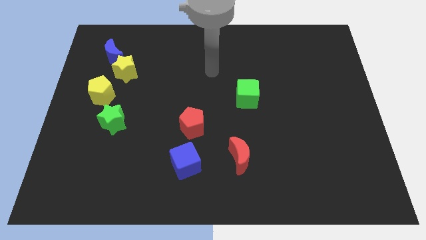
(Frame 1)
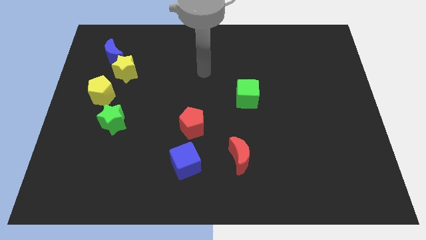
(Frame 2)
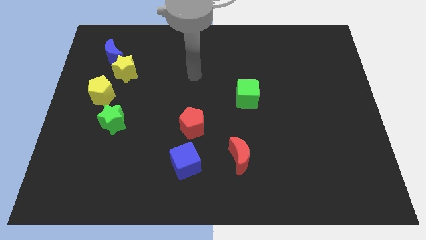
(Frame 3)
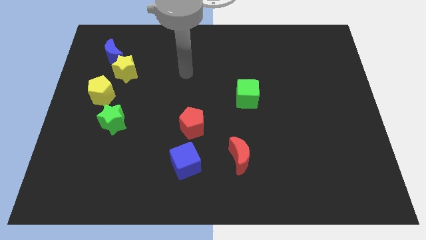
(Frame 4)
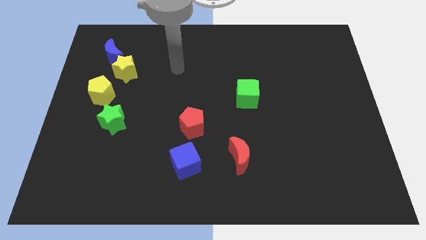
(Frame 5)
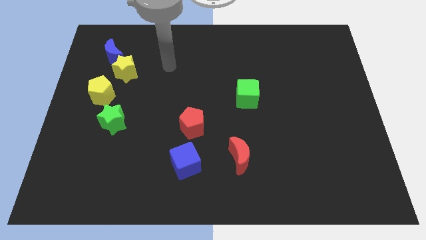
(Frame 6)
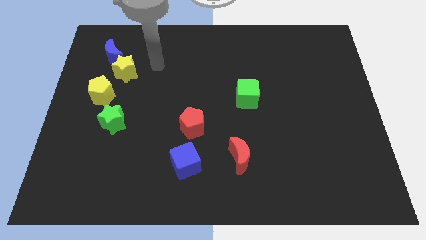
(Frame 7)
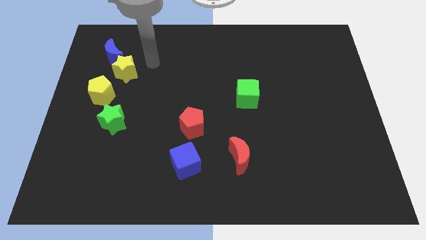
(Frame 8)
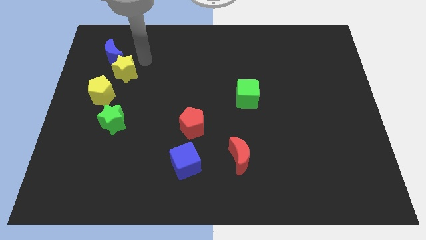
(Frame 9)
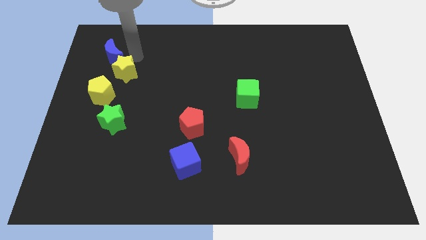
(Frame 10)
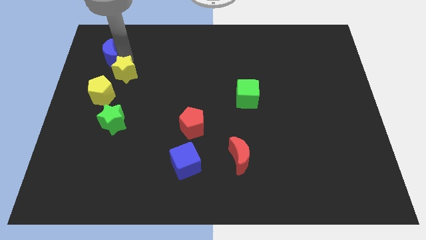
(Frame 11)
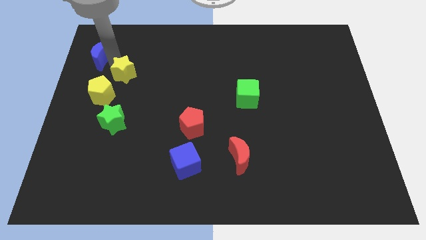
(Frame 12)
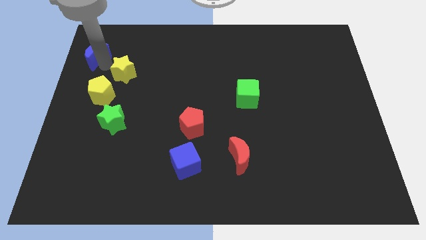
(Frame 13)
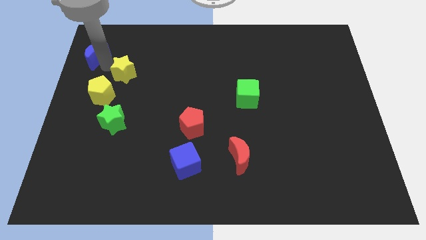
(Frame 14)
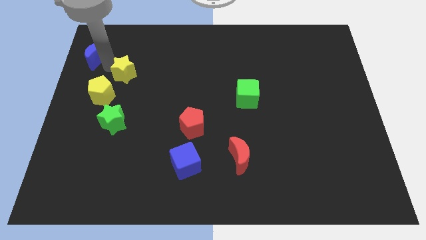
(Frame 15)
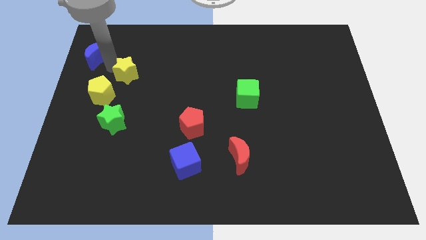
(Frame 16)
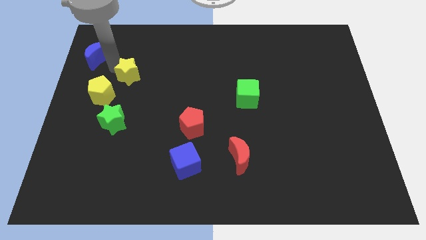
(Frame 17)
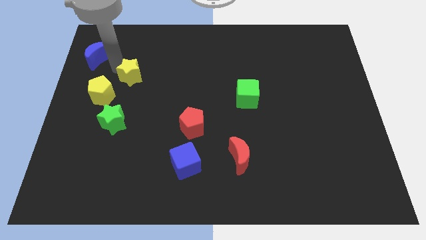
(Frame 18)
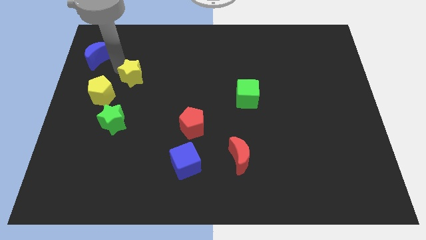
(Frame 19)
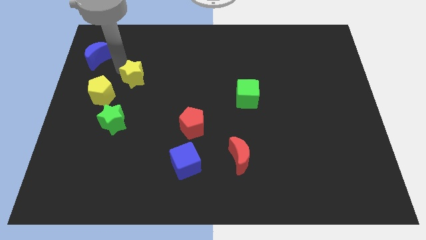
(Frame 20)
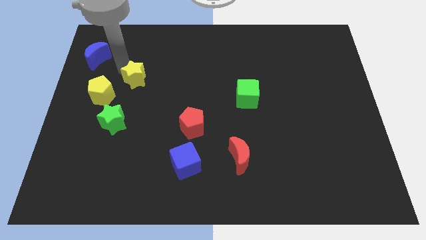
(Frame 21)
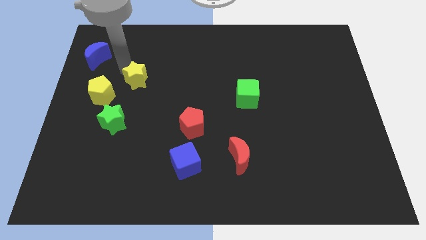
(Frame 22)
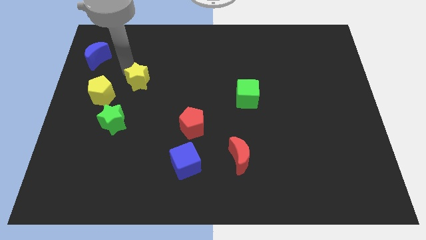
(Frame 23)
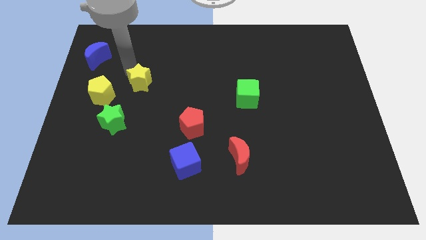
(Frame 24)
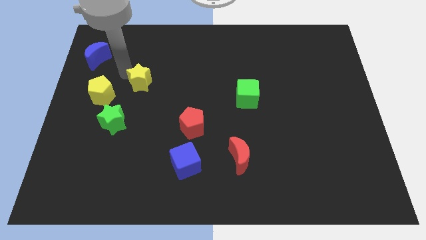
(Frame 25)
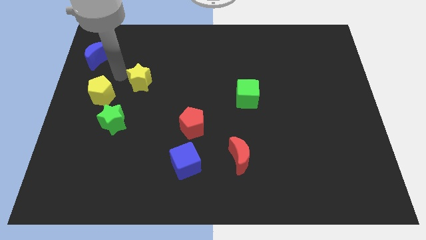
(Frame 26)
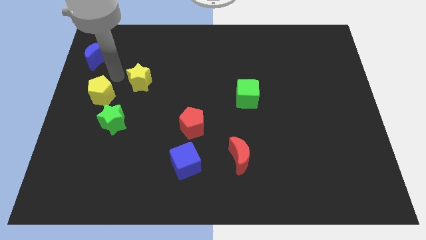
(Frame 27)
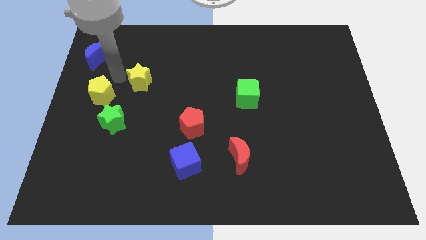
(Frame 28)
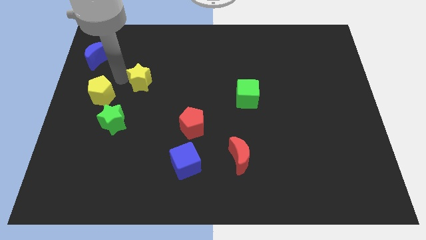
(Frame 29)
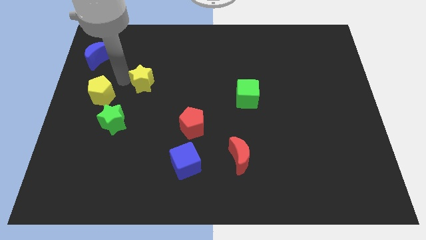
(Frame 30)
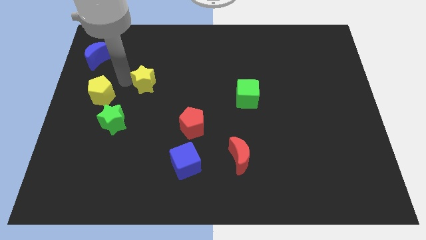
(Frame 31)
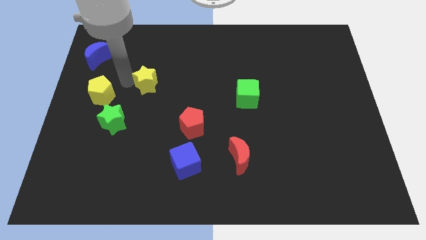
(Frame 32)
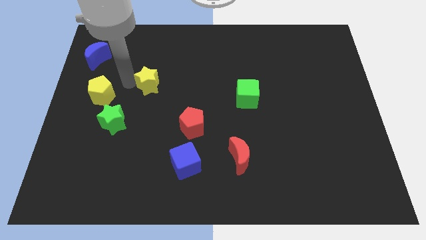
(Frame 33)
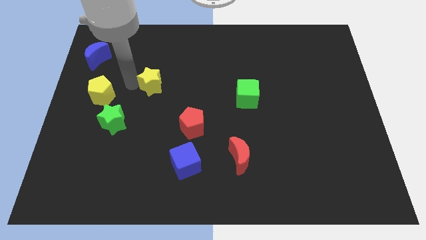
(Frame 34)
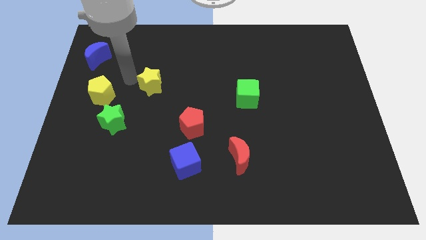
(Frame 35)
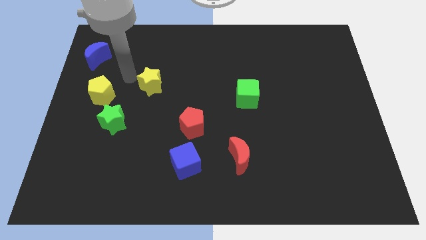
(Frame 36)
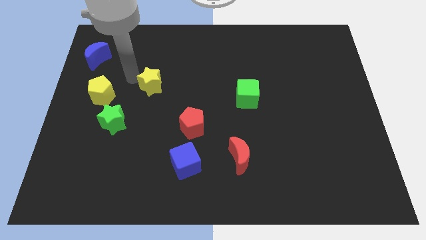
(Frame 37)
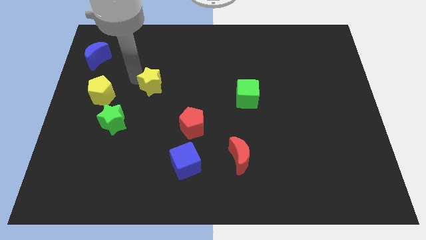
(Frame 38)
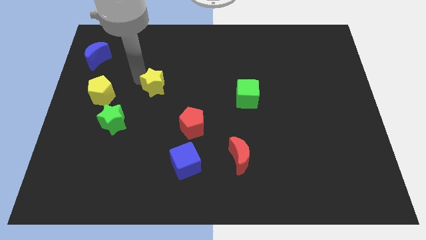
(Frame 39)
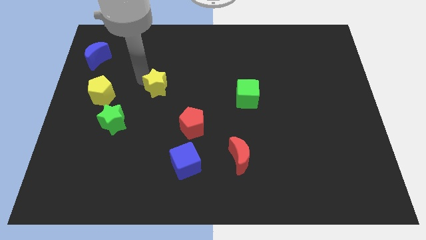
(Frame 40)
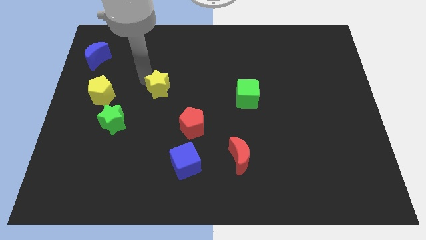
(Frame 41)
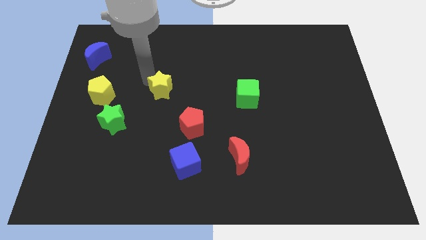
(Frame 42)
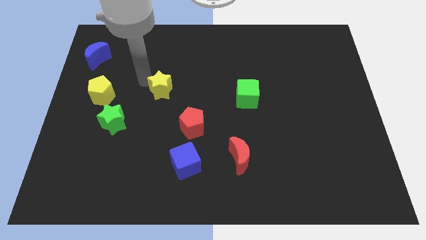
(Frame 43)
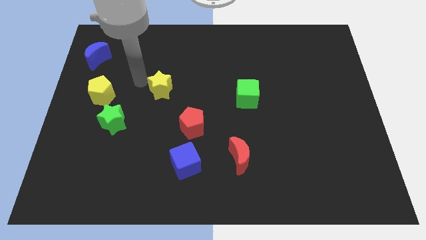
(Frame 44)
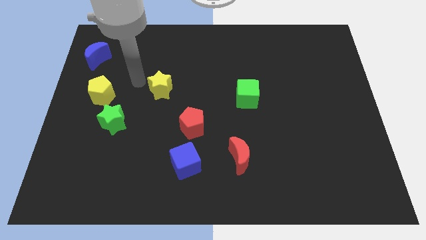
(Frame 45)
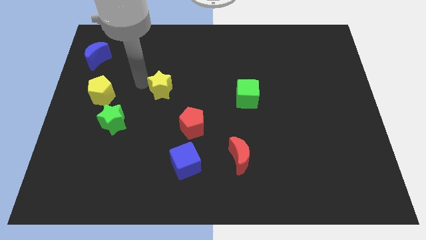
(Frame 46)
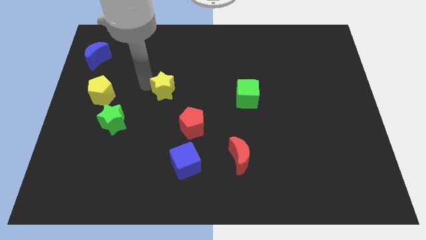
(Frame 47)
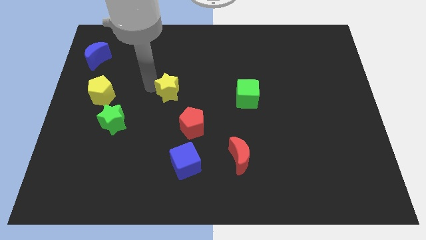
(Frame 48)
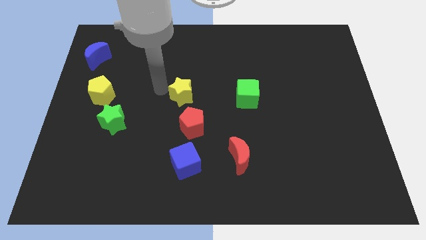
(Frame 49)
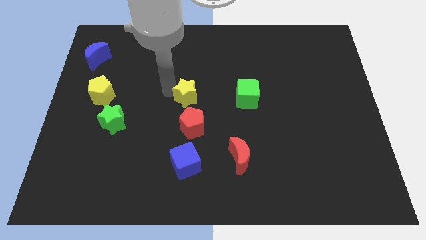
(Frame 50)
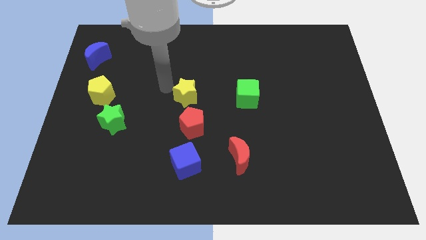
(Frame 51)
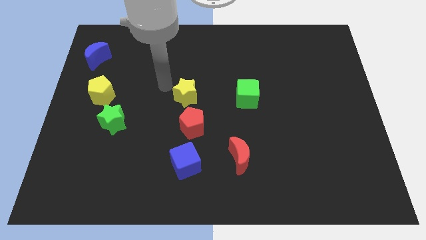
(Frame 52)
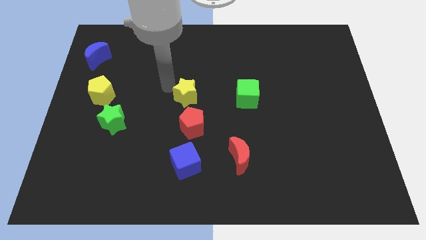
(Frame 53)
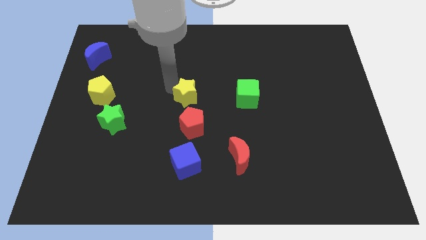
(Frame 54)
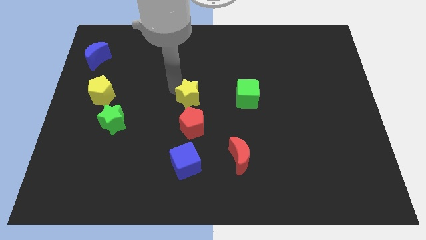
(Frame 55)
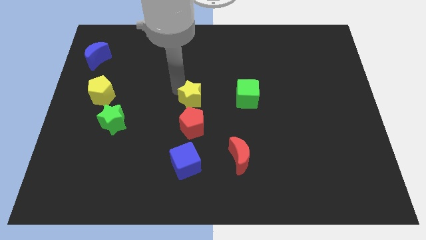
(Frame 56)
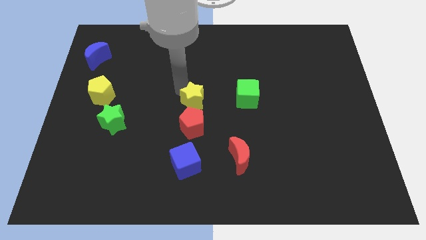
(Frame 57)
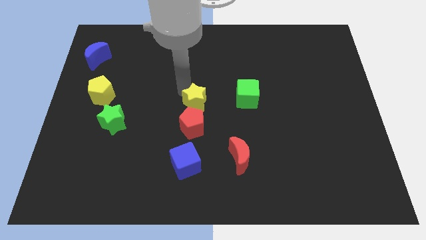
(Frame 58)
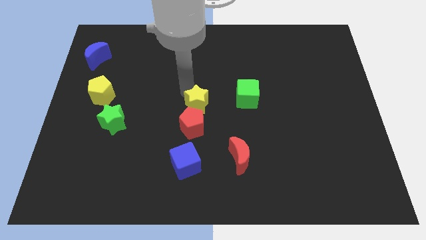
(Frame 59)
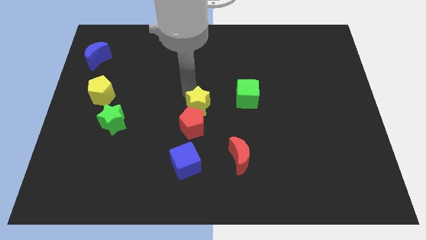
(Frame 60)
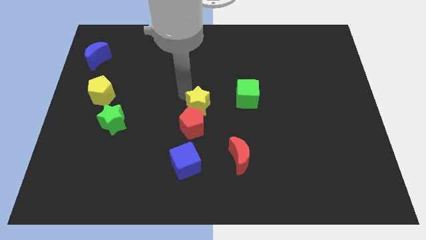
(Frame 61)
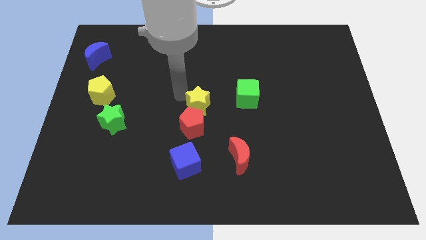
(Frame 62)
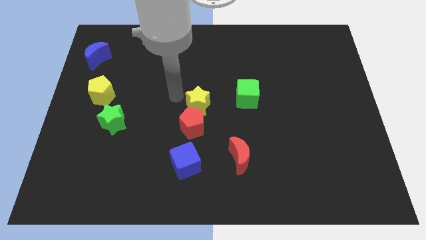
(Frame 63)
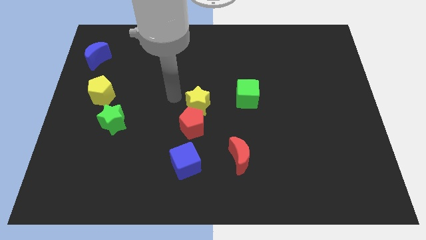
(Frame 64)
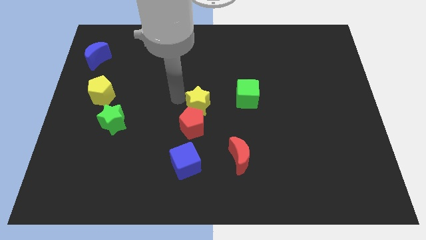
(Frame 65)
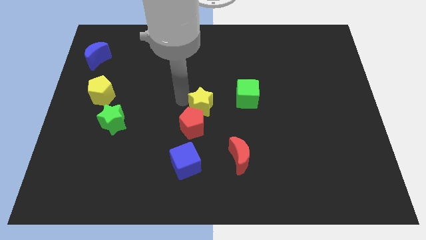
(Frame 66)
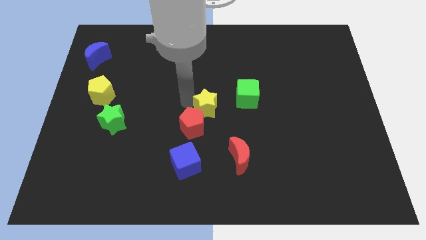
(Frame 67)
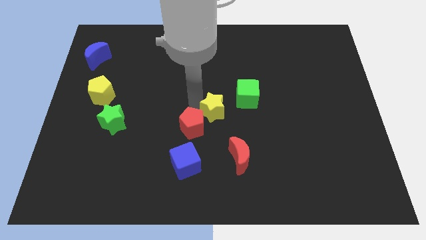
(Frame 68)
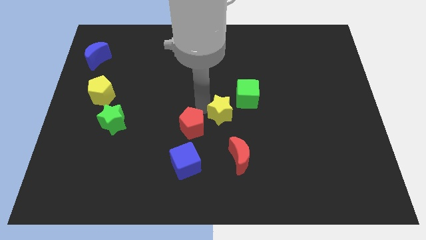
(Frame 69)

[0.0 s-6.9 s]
push the yellow star above the red moon
